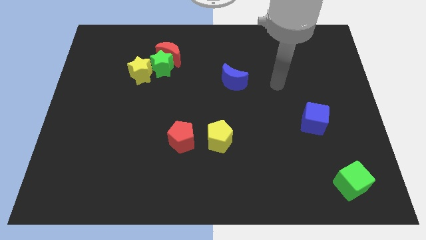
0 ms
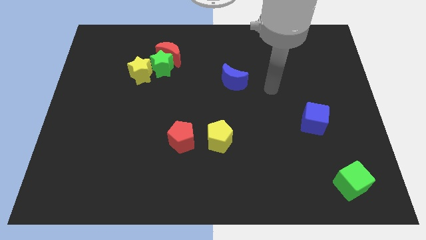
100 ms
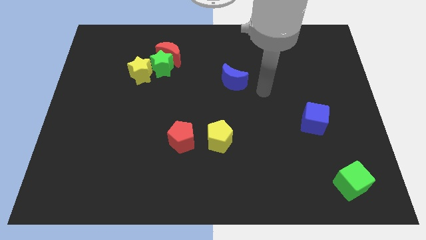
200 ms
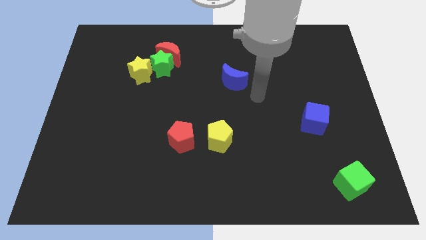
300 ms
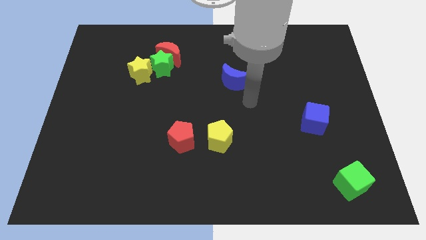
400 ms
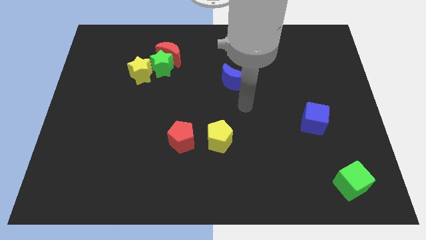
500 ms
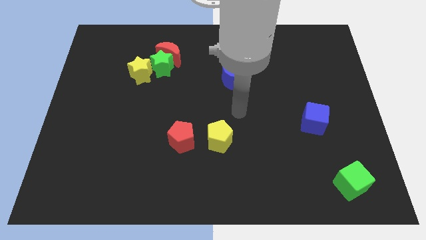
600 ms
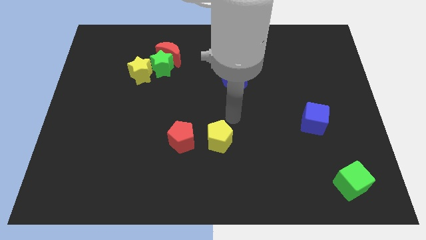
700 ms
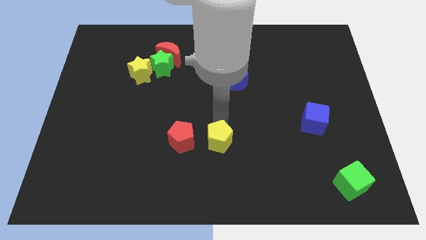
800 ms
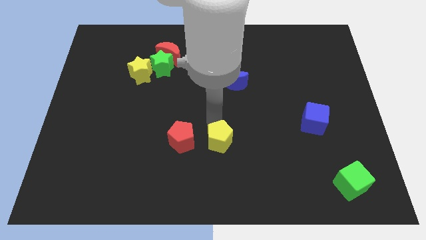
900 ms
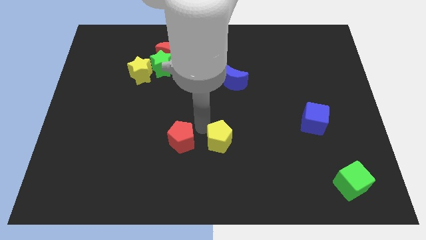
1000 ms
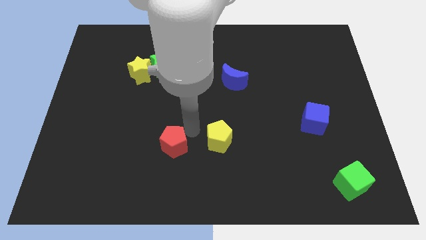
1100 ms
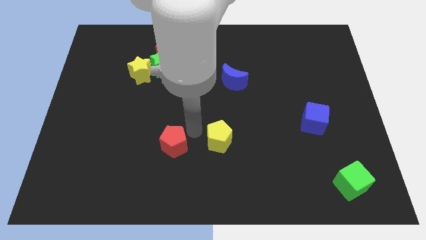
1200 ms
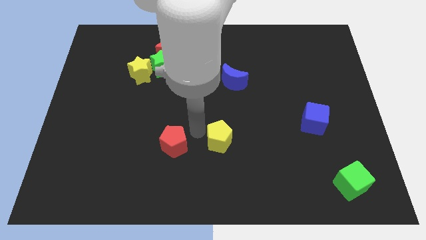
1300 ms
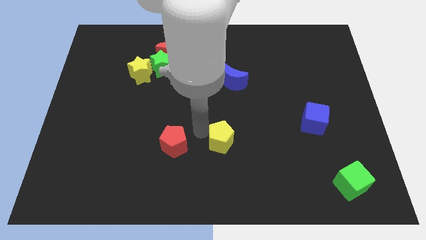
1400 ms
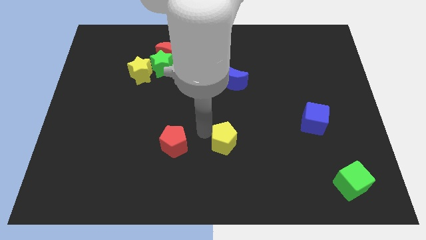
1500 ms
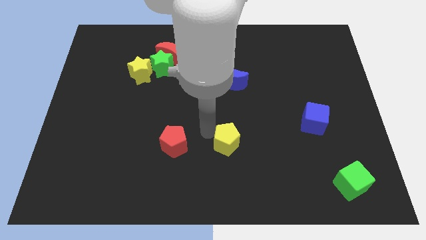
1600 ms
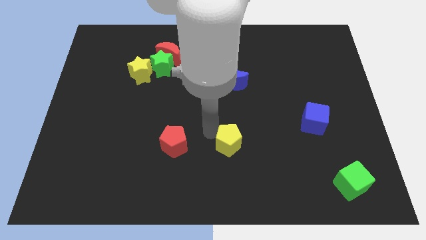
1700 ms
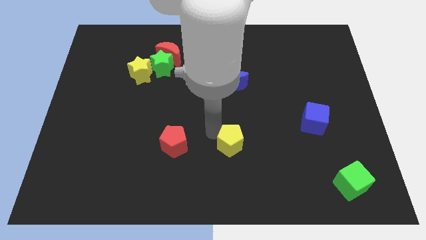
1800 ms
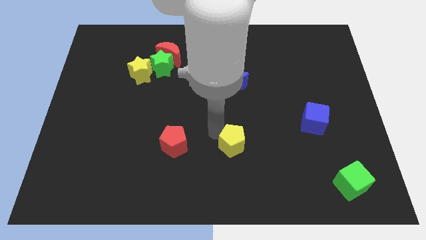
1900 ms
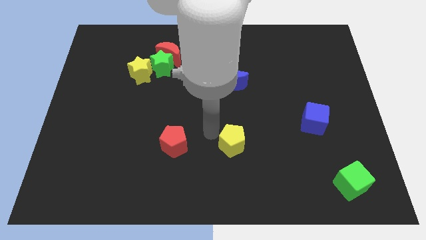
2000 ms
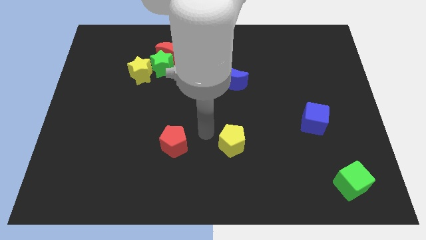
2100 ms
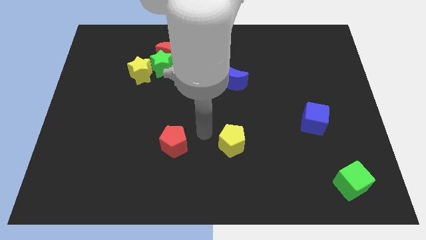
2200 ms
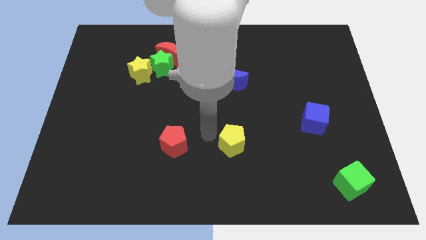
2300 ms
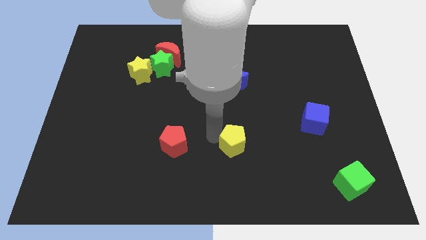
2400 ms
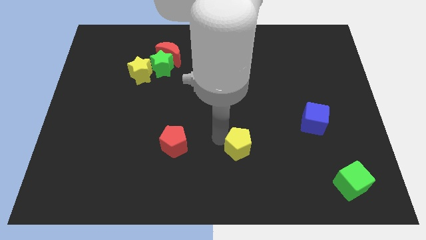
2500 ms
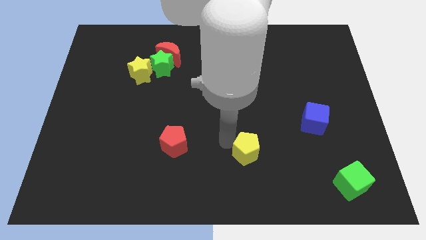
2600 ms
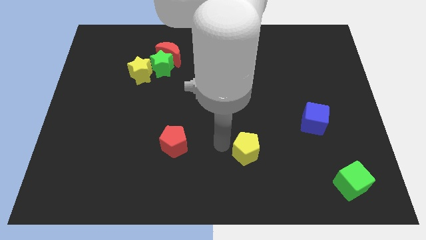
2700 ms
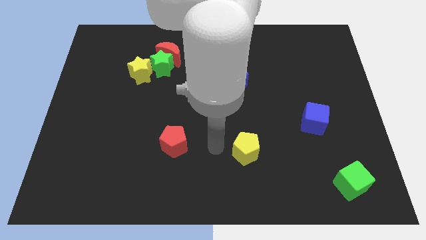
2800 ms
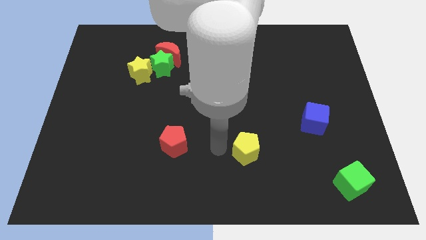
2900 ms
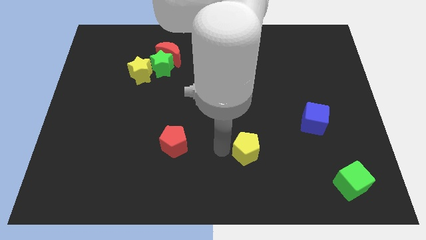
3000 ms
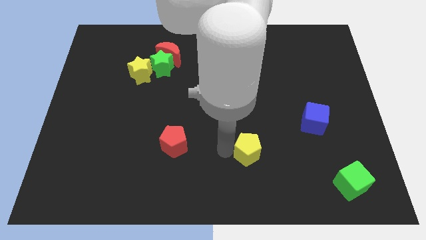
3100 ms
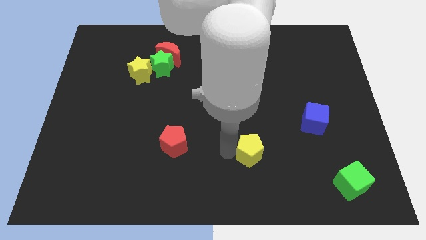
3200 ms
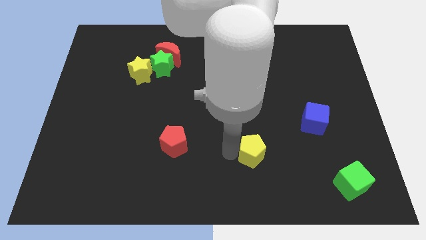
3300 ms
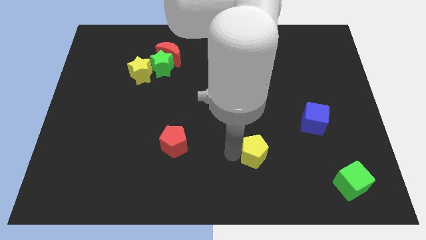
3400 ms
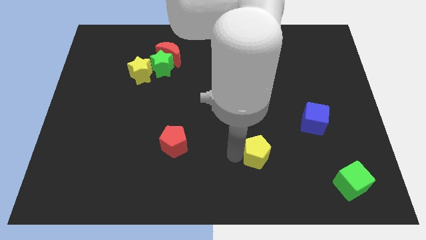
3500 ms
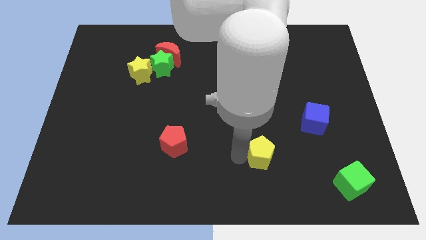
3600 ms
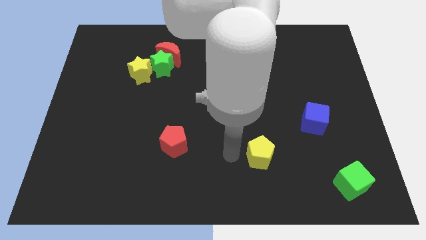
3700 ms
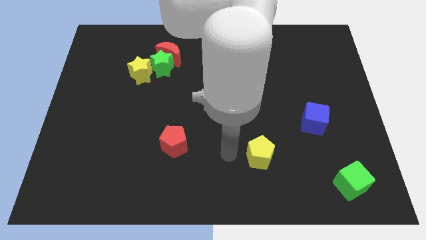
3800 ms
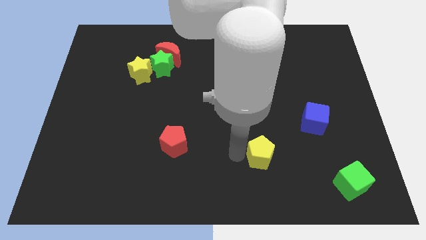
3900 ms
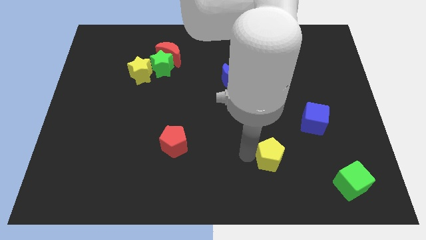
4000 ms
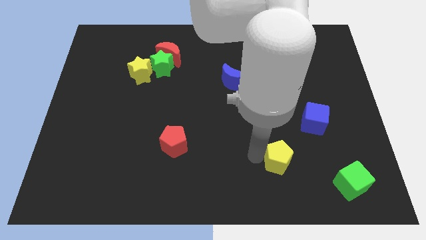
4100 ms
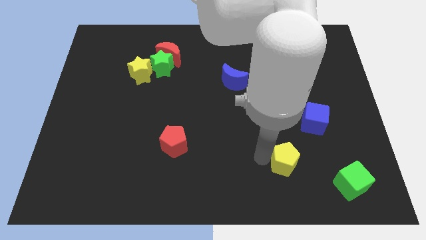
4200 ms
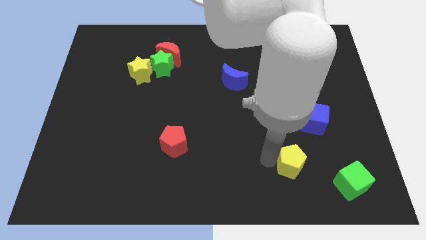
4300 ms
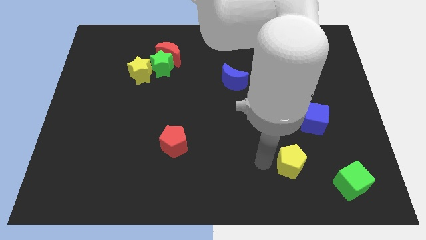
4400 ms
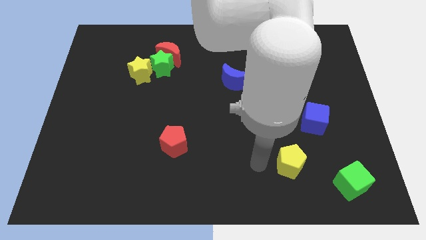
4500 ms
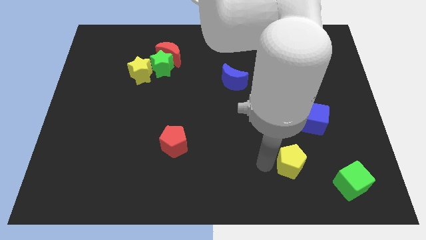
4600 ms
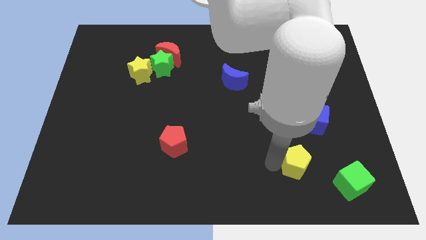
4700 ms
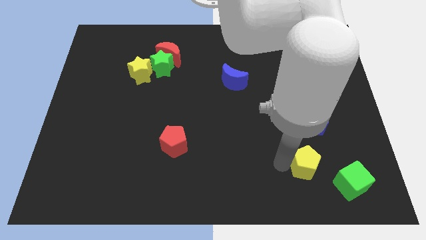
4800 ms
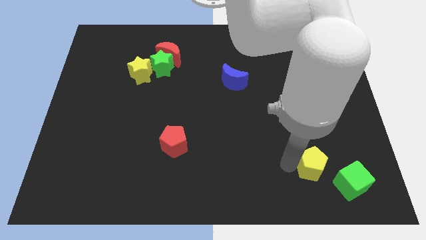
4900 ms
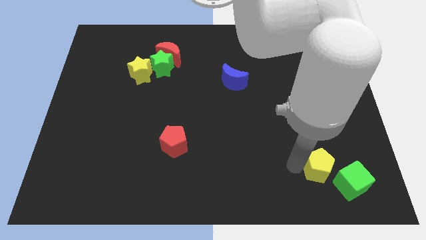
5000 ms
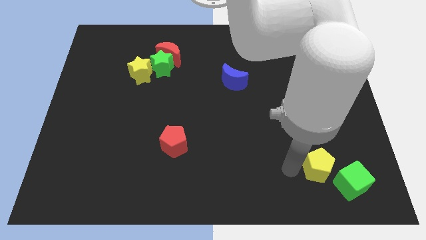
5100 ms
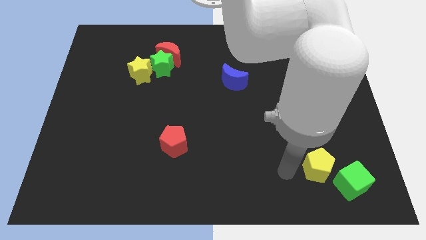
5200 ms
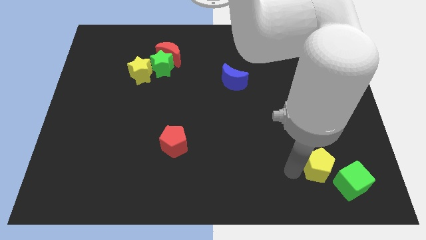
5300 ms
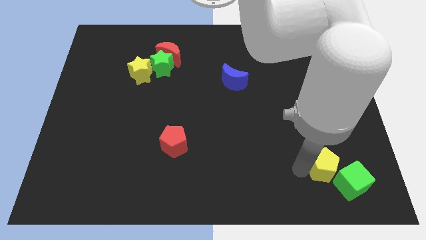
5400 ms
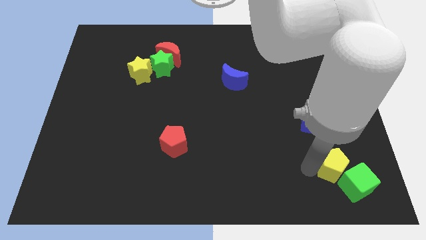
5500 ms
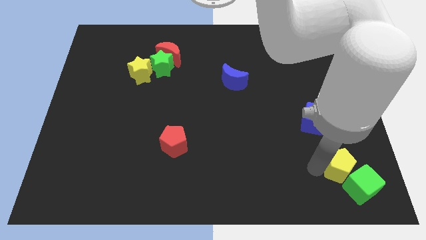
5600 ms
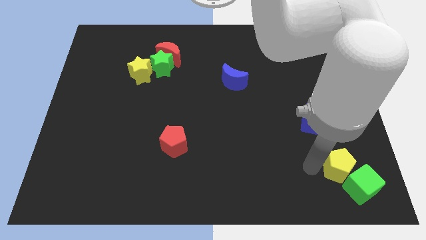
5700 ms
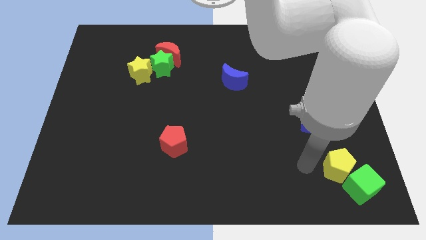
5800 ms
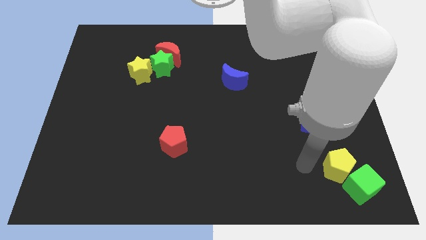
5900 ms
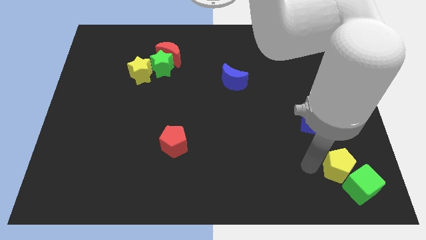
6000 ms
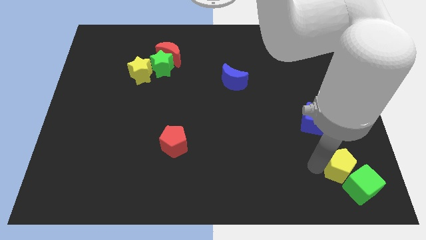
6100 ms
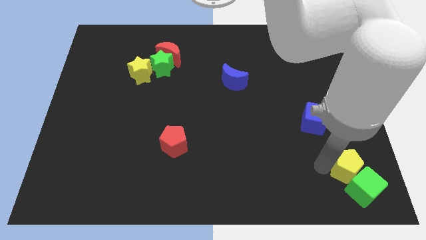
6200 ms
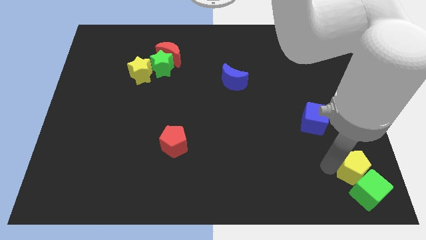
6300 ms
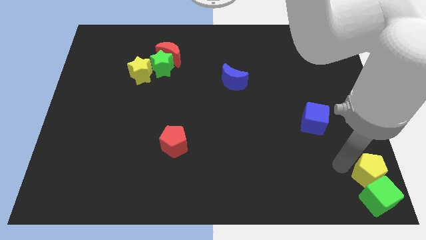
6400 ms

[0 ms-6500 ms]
move the yellow pentagon to the lower right corner
